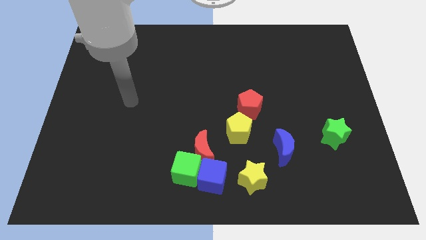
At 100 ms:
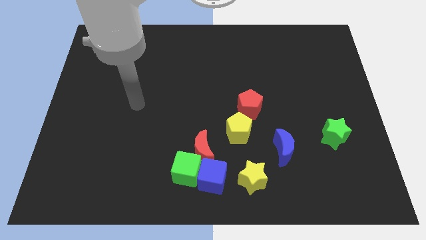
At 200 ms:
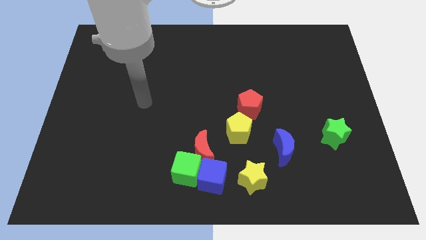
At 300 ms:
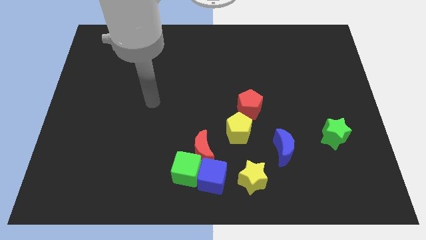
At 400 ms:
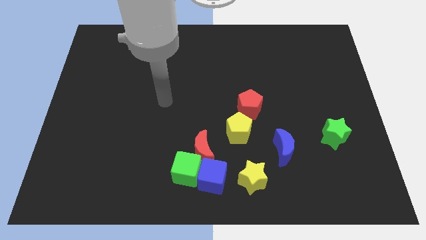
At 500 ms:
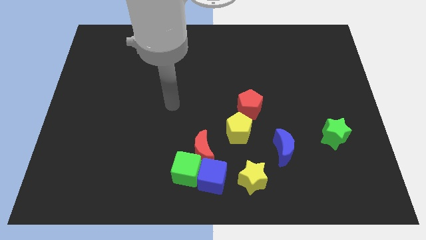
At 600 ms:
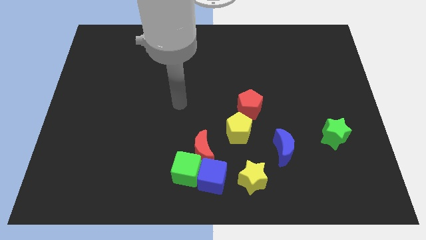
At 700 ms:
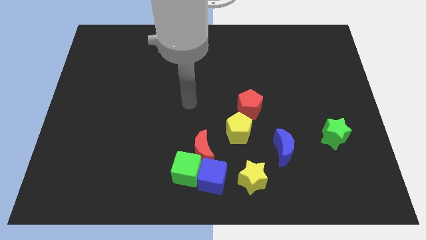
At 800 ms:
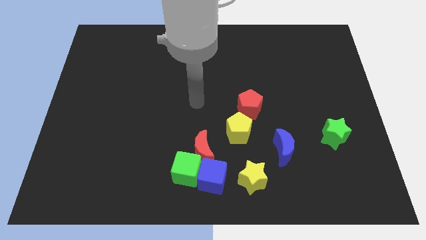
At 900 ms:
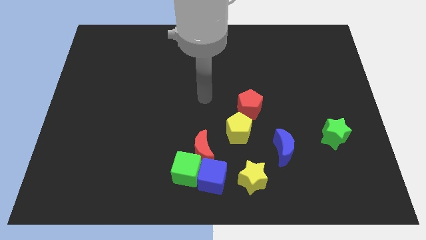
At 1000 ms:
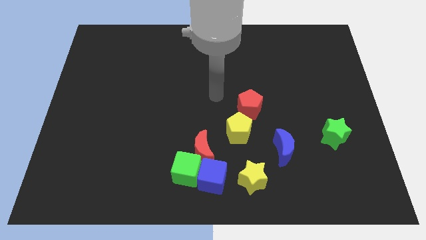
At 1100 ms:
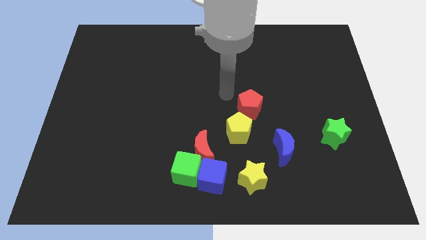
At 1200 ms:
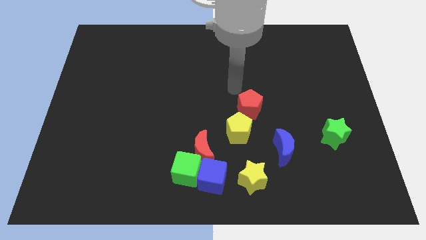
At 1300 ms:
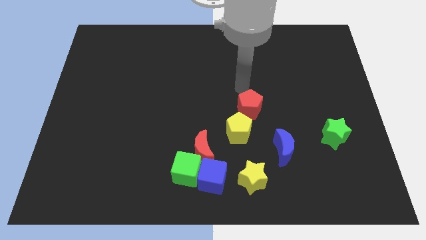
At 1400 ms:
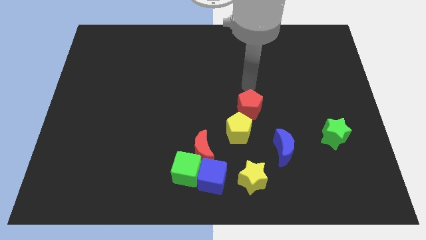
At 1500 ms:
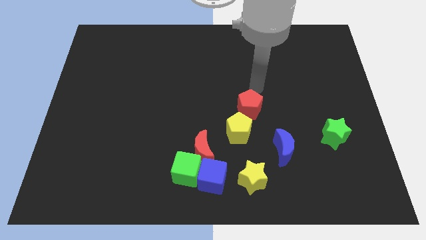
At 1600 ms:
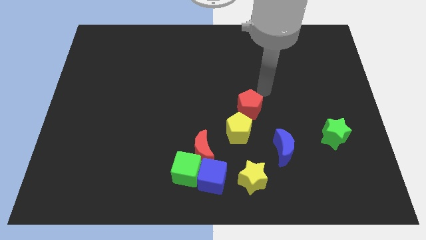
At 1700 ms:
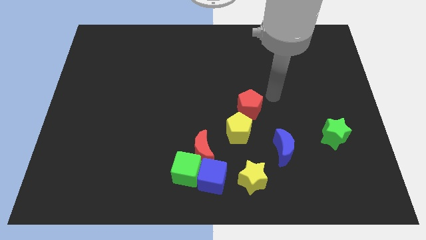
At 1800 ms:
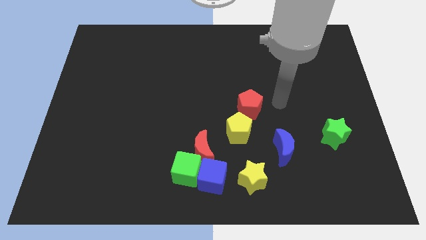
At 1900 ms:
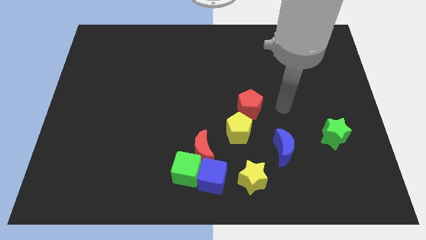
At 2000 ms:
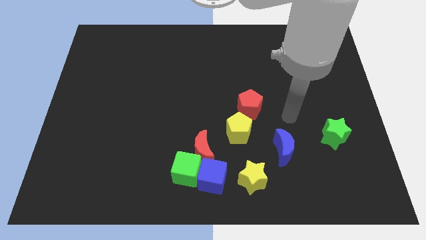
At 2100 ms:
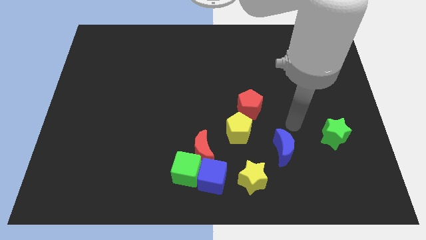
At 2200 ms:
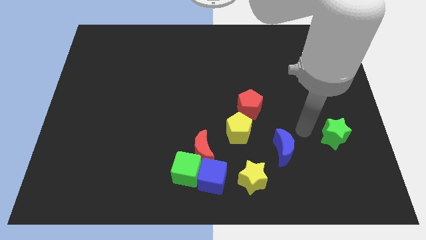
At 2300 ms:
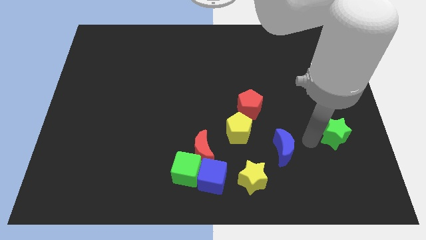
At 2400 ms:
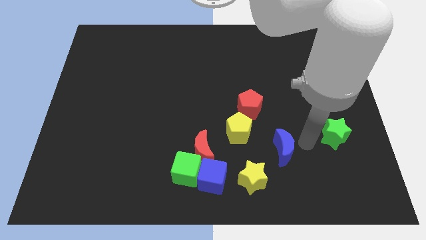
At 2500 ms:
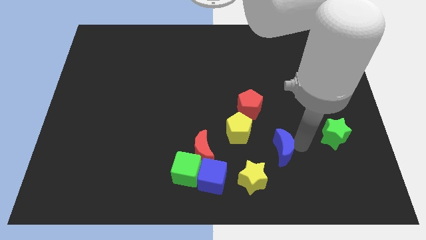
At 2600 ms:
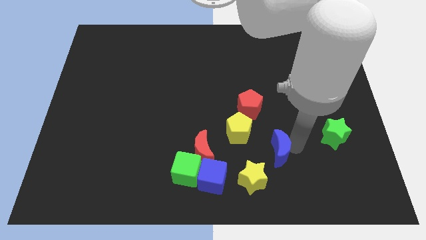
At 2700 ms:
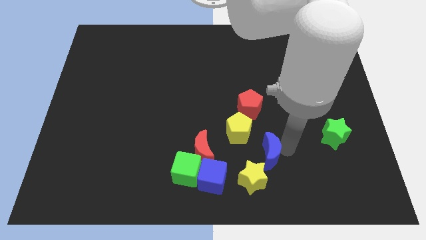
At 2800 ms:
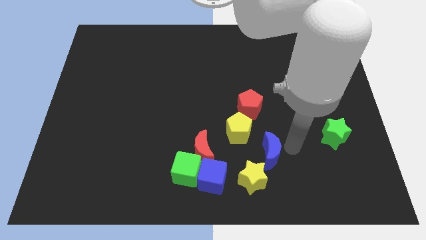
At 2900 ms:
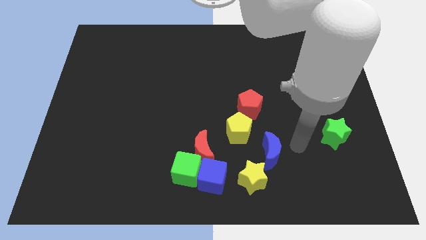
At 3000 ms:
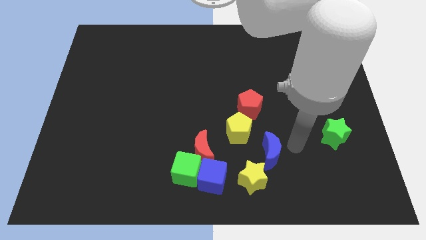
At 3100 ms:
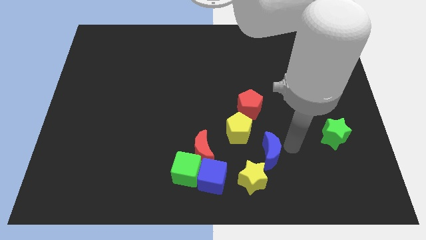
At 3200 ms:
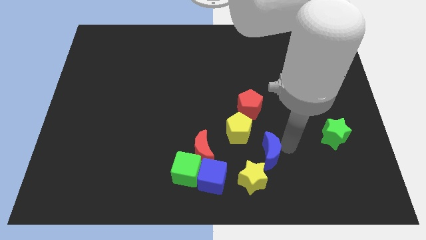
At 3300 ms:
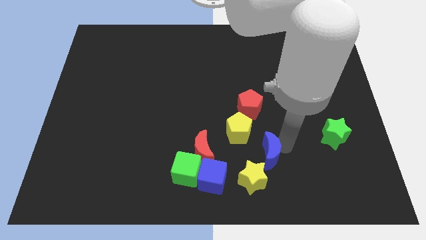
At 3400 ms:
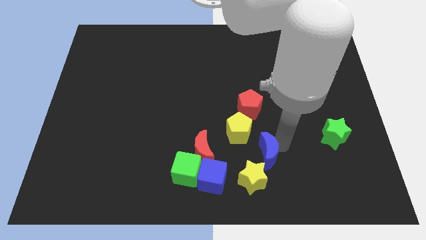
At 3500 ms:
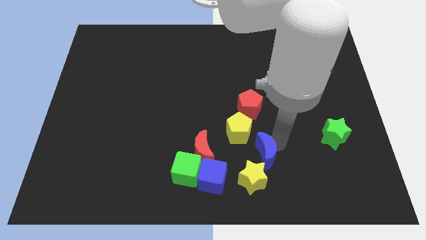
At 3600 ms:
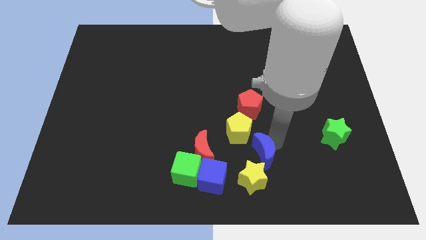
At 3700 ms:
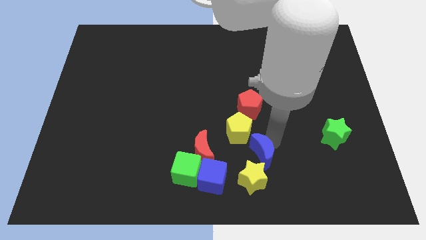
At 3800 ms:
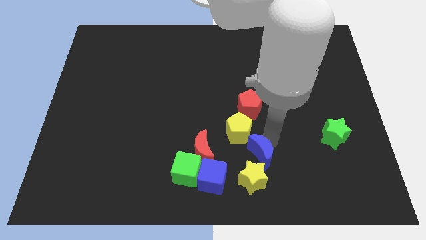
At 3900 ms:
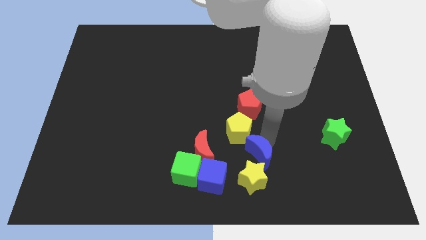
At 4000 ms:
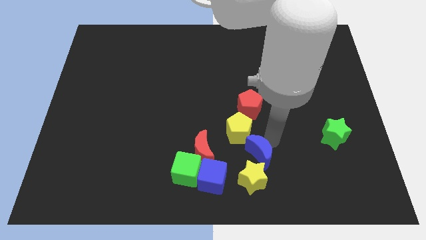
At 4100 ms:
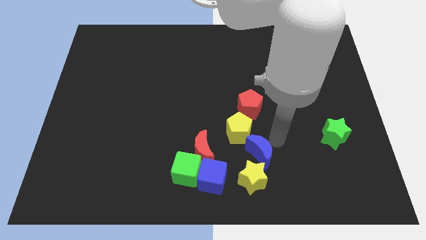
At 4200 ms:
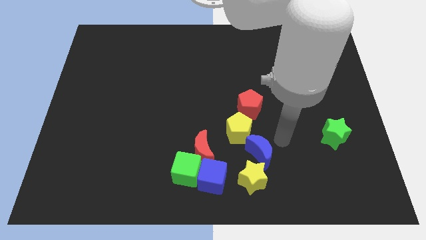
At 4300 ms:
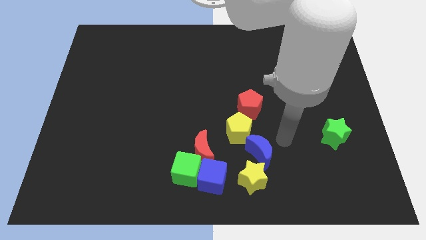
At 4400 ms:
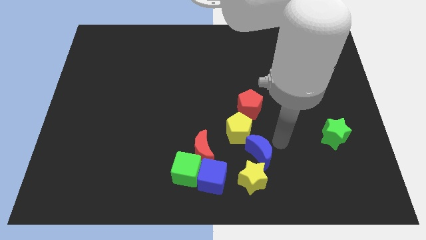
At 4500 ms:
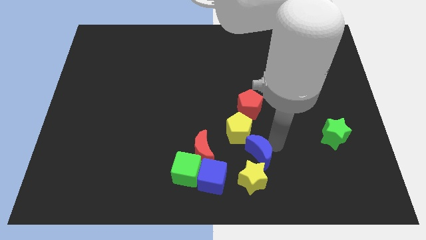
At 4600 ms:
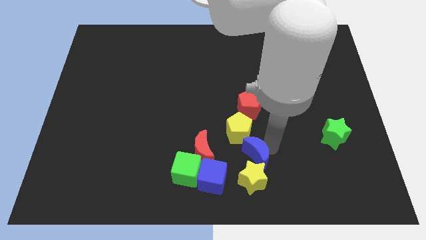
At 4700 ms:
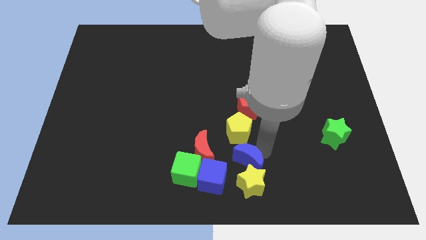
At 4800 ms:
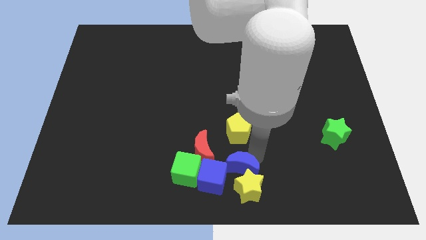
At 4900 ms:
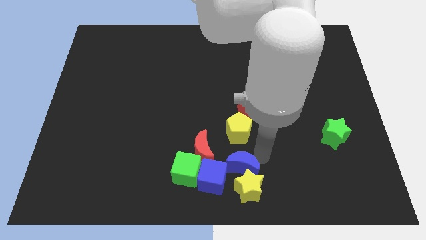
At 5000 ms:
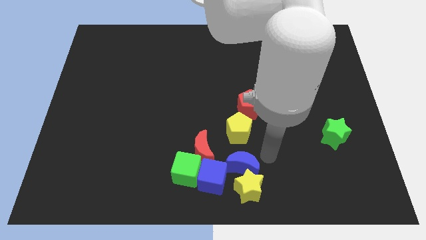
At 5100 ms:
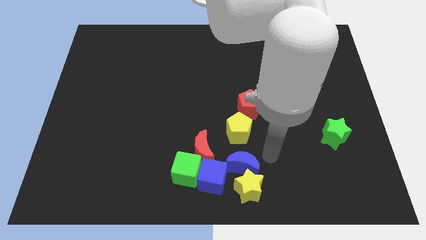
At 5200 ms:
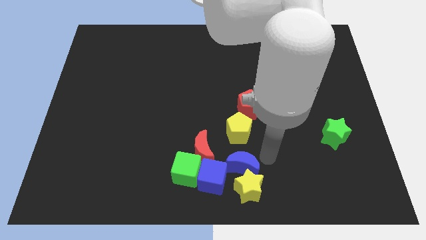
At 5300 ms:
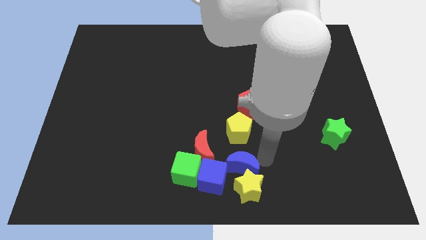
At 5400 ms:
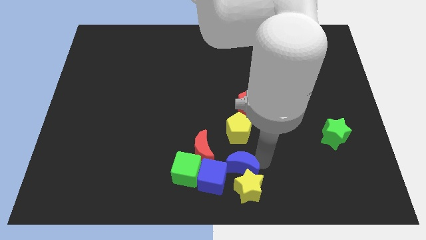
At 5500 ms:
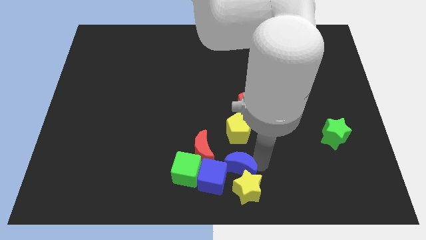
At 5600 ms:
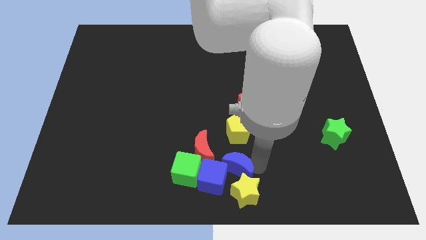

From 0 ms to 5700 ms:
put the blue moon to the blue cube
